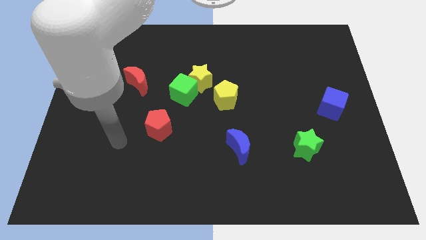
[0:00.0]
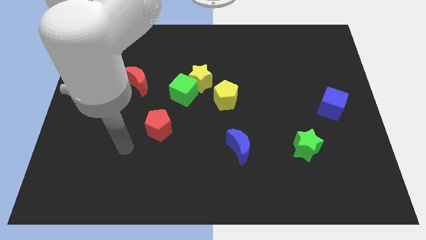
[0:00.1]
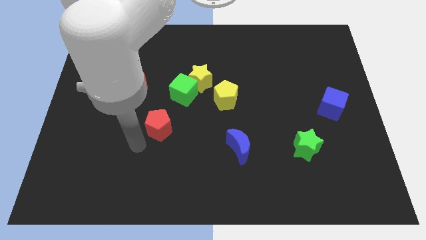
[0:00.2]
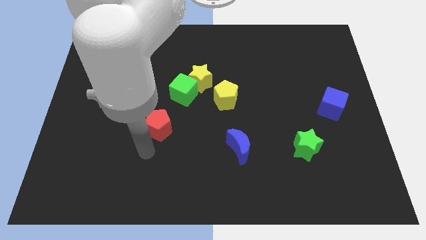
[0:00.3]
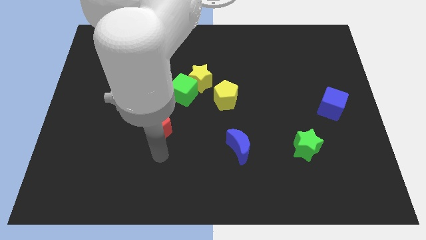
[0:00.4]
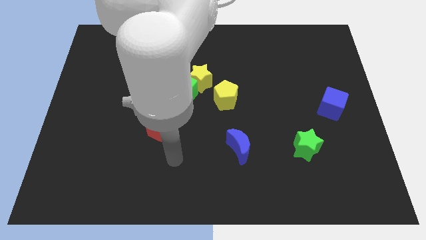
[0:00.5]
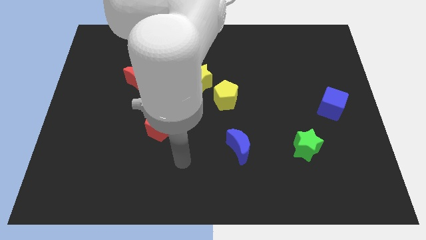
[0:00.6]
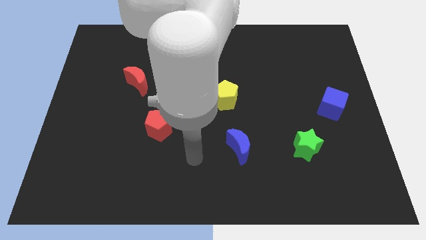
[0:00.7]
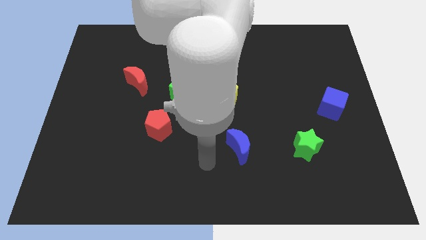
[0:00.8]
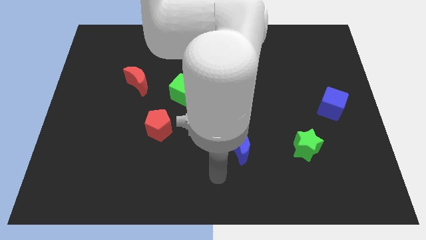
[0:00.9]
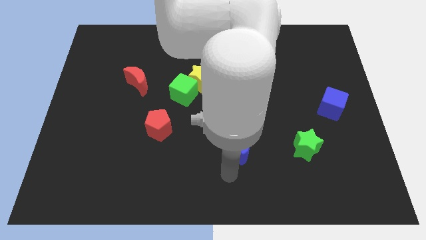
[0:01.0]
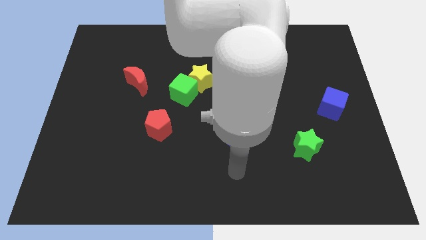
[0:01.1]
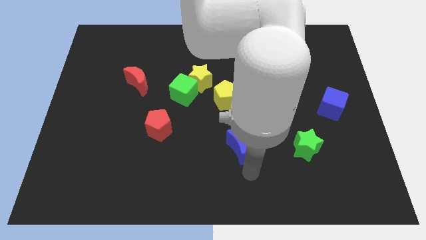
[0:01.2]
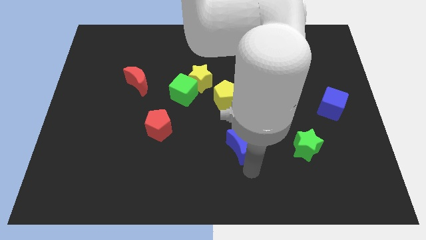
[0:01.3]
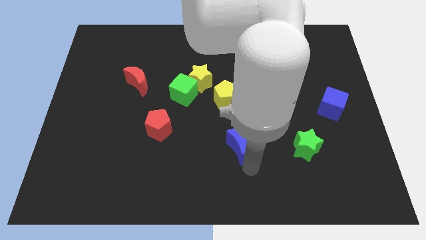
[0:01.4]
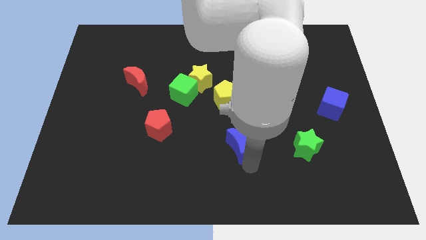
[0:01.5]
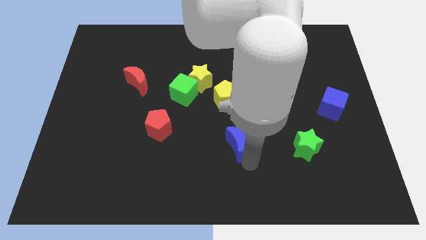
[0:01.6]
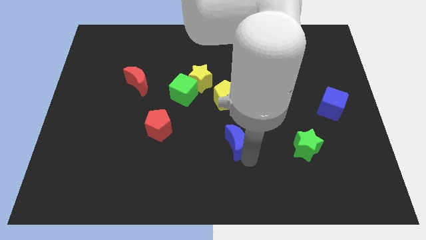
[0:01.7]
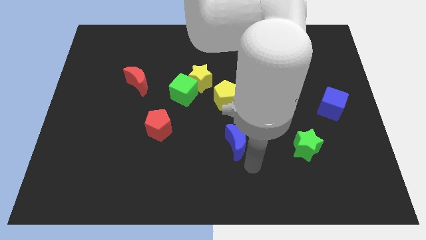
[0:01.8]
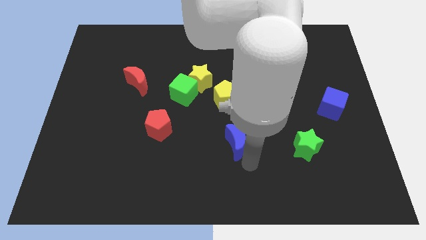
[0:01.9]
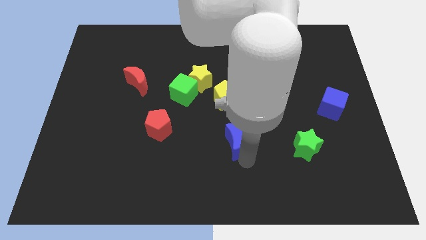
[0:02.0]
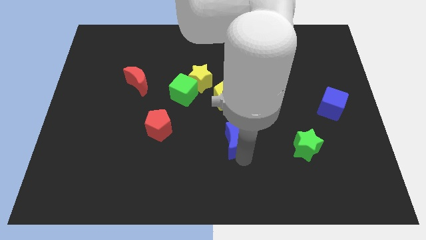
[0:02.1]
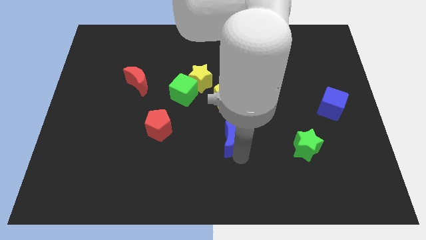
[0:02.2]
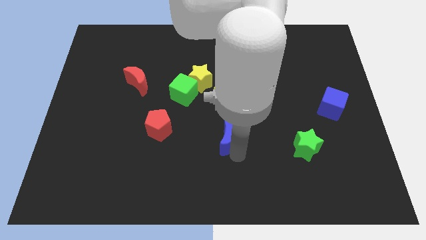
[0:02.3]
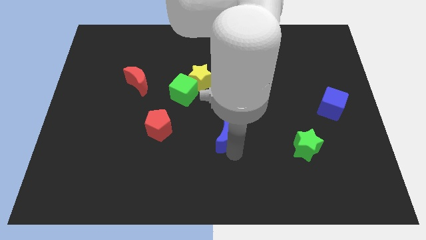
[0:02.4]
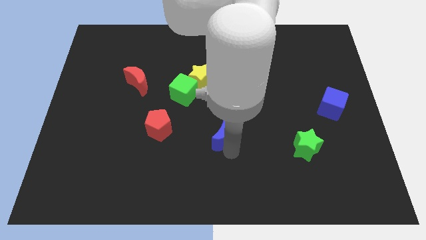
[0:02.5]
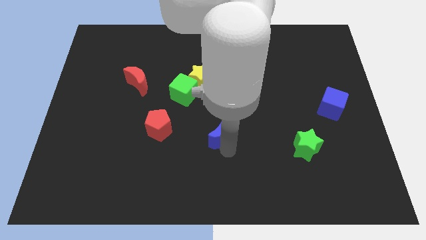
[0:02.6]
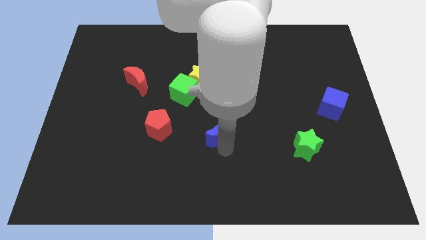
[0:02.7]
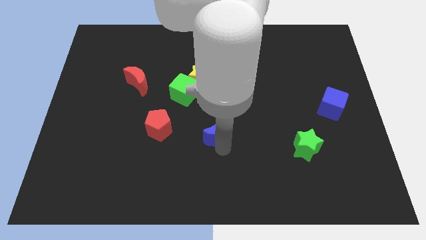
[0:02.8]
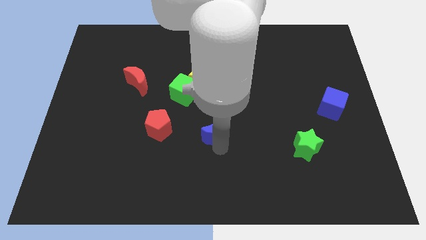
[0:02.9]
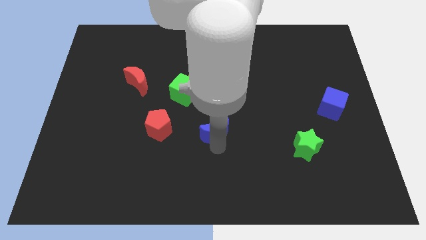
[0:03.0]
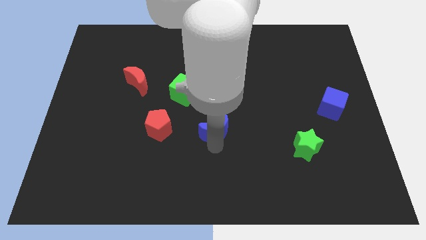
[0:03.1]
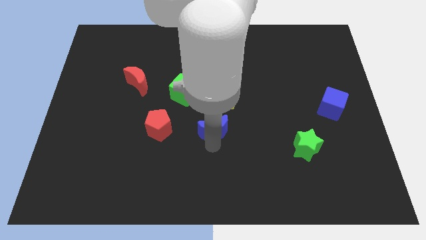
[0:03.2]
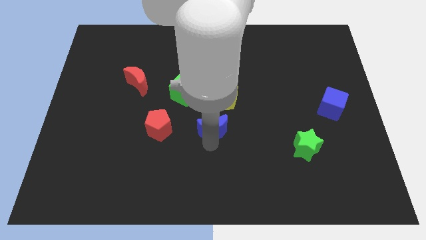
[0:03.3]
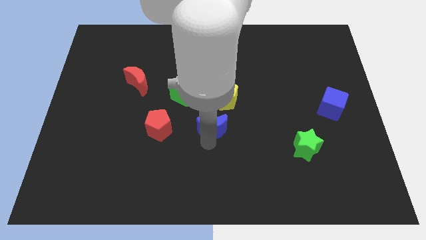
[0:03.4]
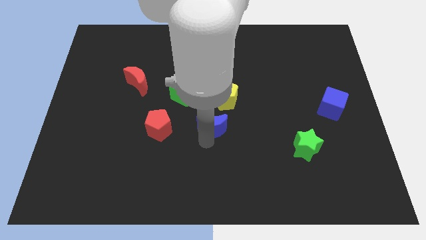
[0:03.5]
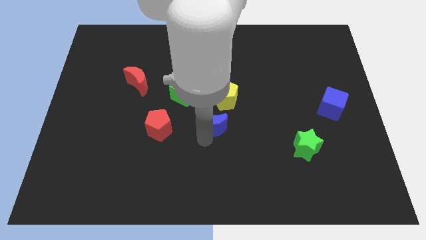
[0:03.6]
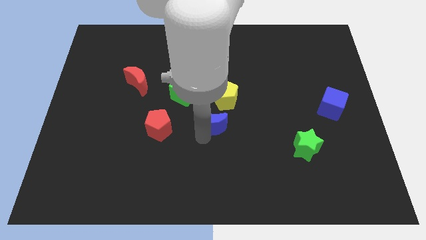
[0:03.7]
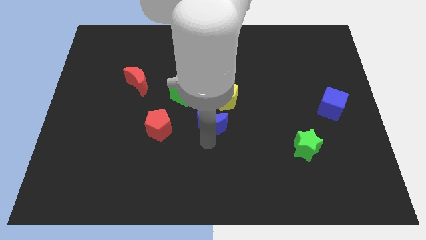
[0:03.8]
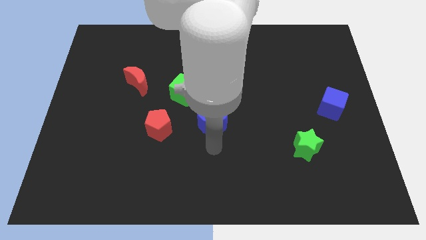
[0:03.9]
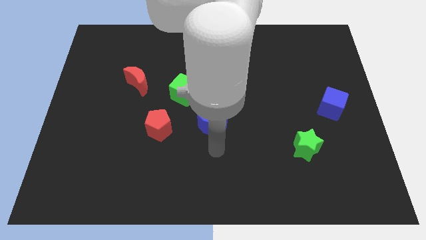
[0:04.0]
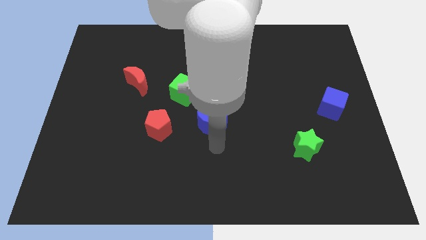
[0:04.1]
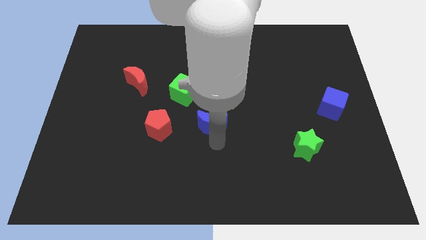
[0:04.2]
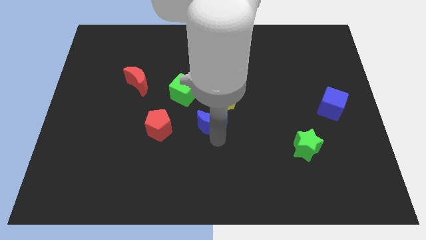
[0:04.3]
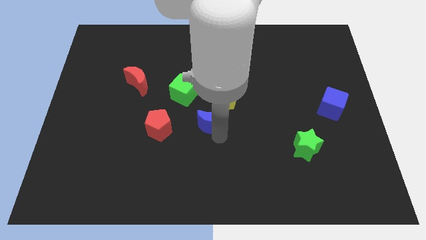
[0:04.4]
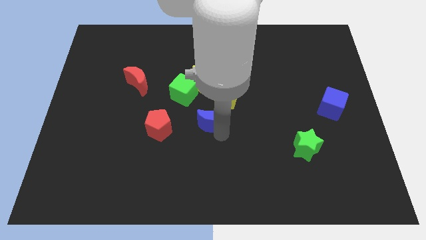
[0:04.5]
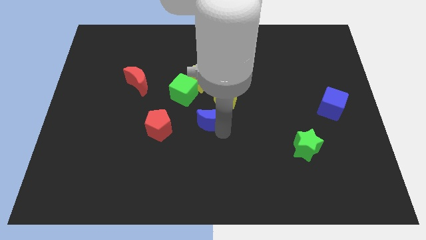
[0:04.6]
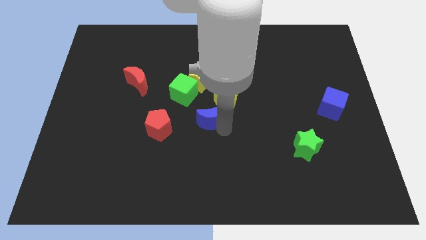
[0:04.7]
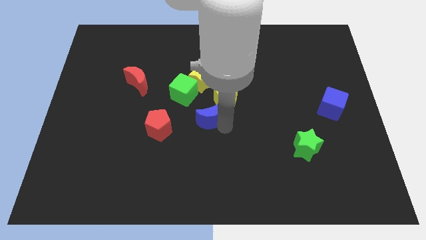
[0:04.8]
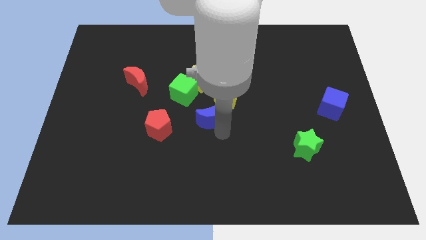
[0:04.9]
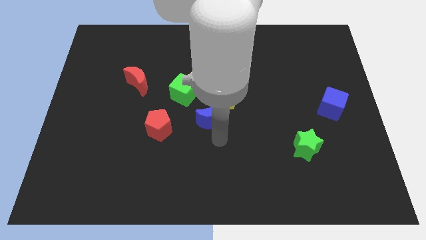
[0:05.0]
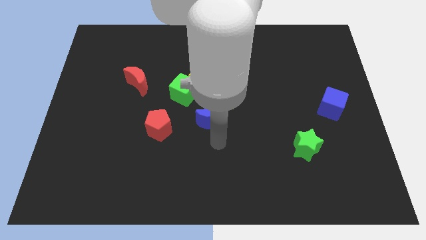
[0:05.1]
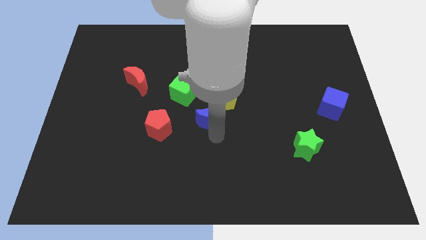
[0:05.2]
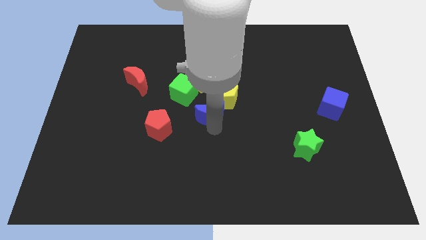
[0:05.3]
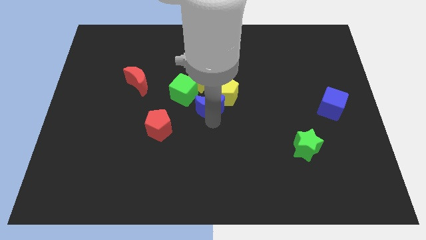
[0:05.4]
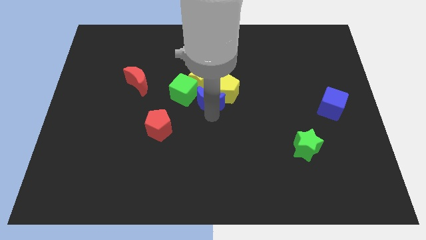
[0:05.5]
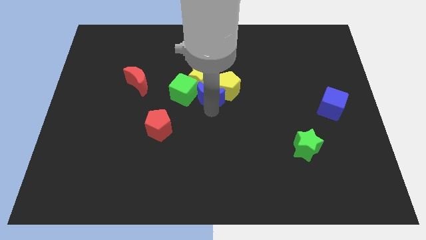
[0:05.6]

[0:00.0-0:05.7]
slide the blue moon towards the yellow star

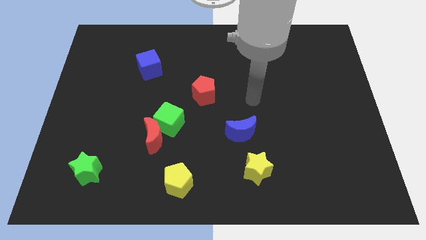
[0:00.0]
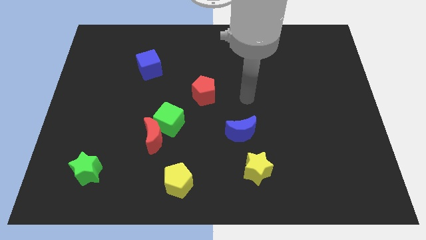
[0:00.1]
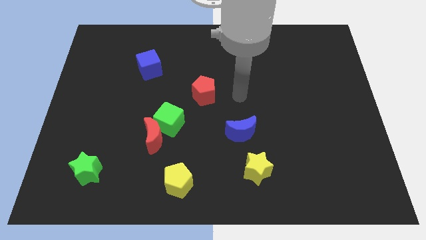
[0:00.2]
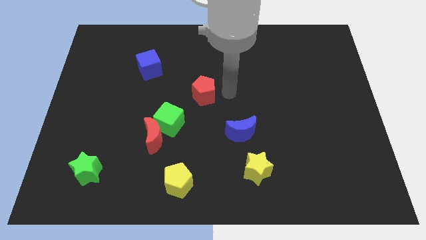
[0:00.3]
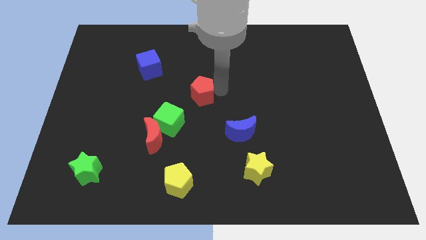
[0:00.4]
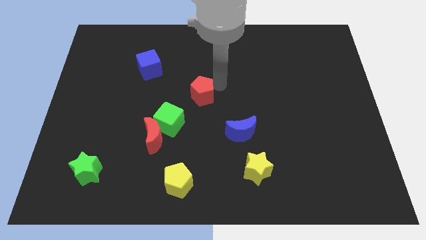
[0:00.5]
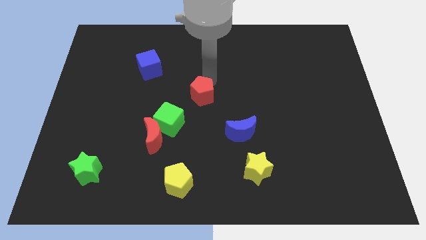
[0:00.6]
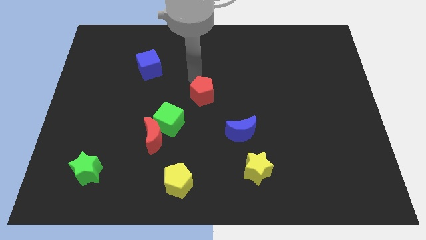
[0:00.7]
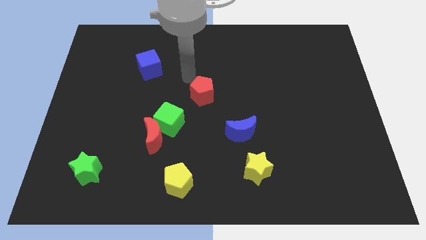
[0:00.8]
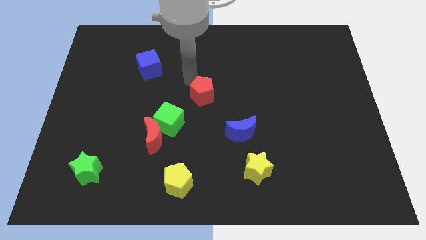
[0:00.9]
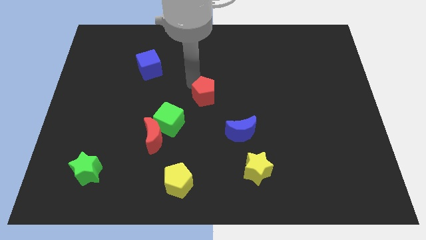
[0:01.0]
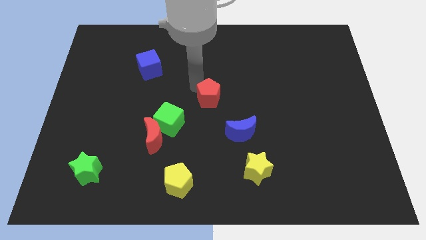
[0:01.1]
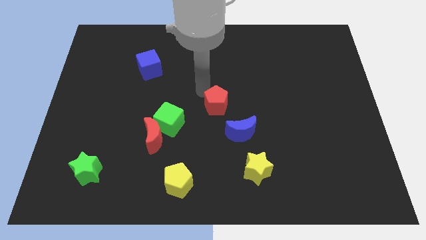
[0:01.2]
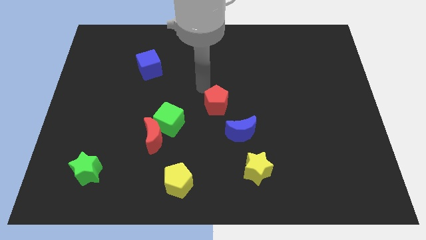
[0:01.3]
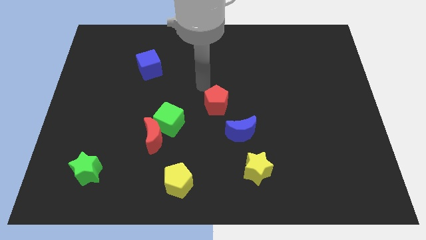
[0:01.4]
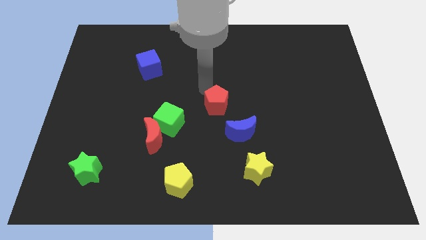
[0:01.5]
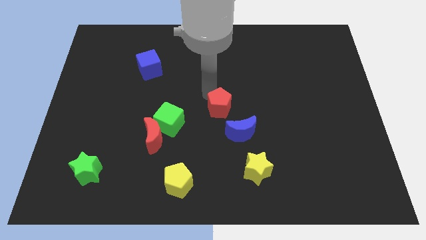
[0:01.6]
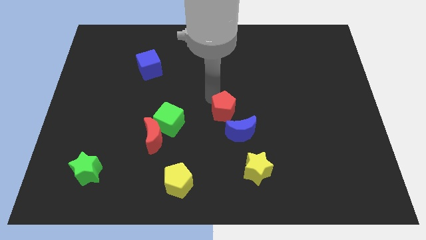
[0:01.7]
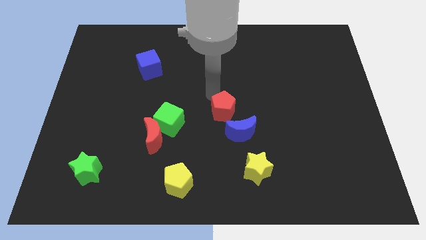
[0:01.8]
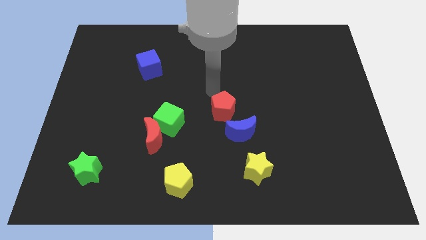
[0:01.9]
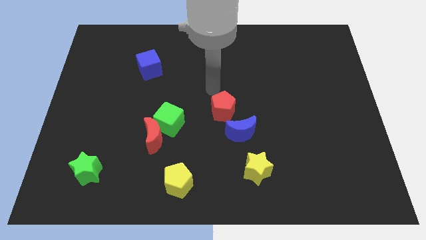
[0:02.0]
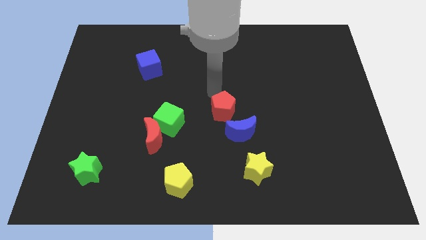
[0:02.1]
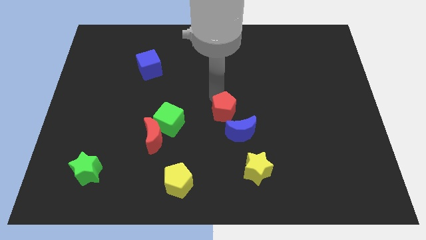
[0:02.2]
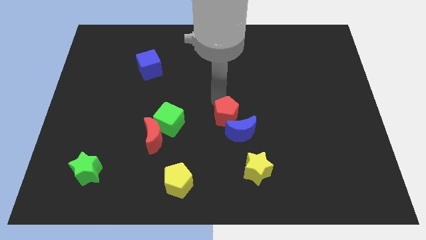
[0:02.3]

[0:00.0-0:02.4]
move the red pentagon towards the blue moon

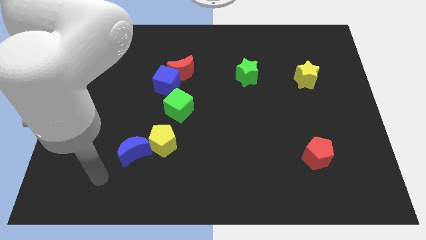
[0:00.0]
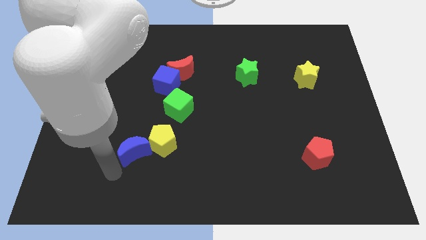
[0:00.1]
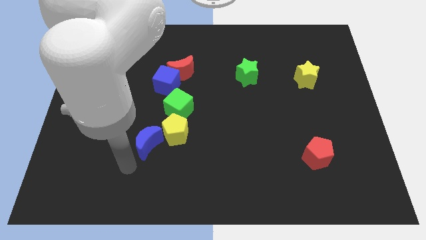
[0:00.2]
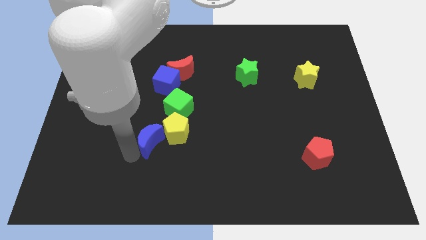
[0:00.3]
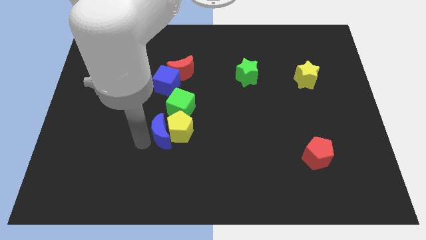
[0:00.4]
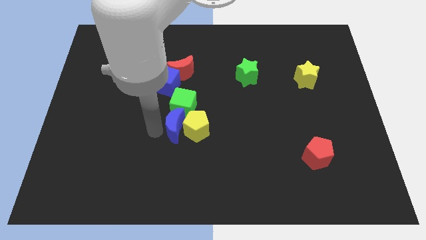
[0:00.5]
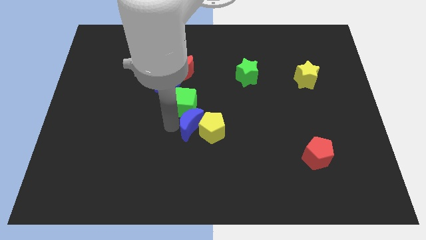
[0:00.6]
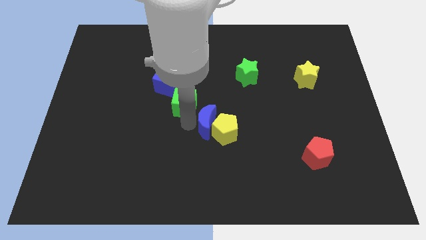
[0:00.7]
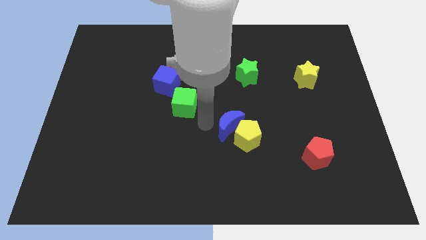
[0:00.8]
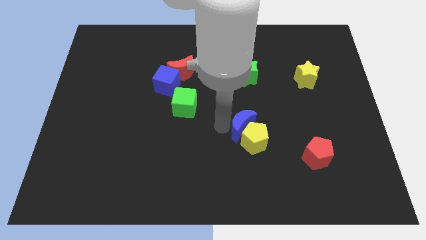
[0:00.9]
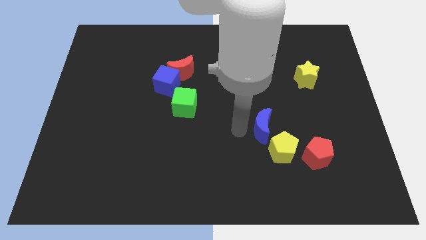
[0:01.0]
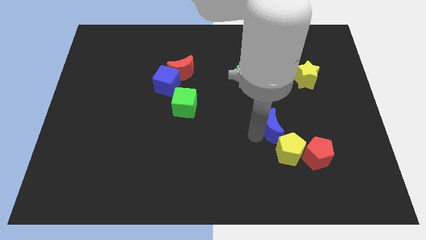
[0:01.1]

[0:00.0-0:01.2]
slide the yellow pentagon next to the red pentagon
